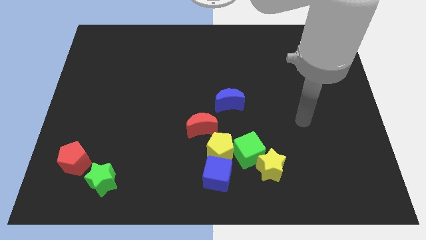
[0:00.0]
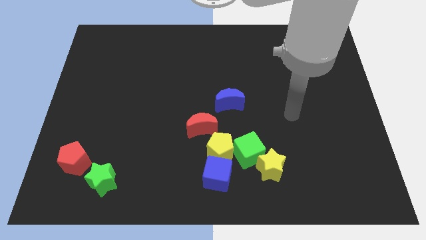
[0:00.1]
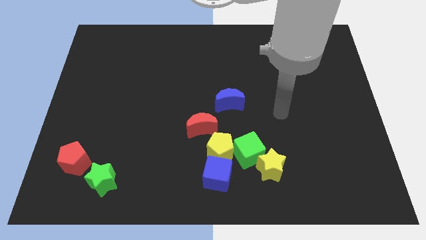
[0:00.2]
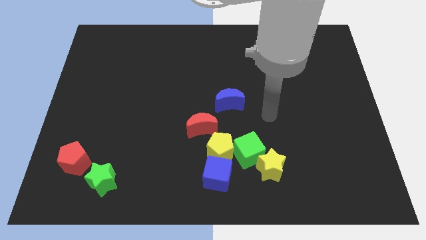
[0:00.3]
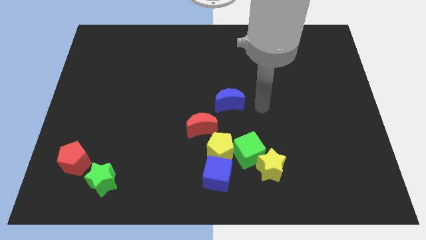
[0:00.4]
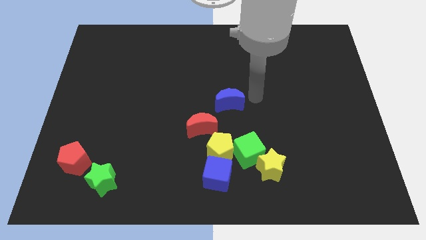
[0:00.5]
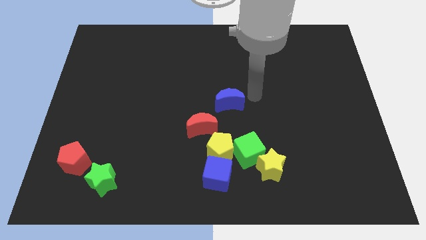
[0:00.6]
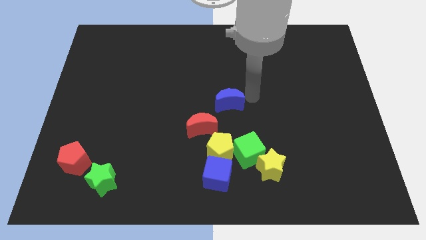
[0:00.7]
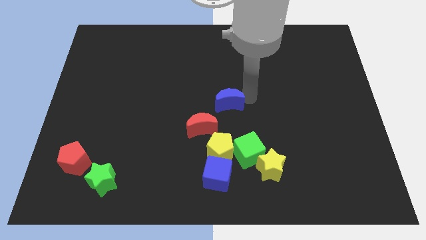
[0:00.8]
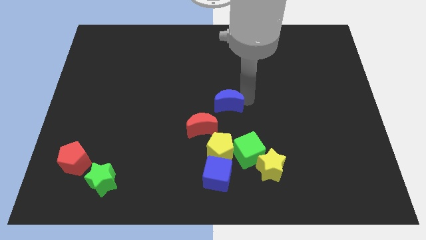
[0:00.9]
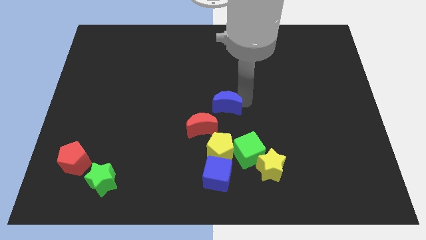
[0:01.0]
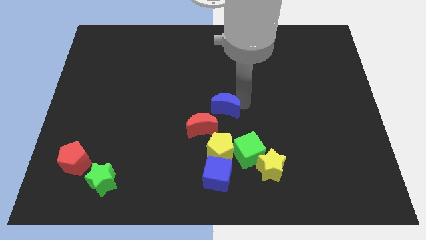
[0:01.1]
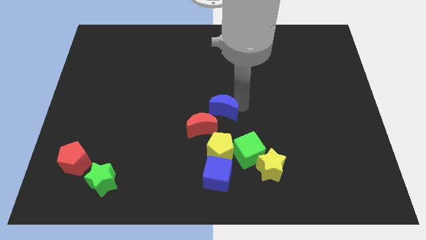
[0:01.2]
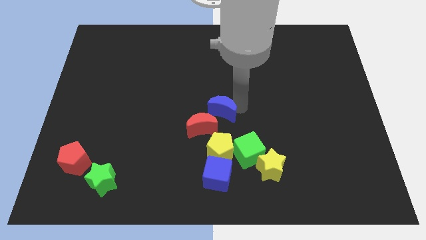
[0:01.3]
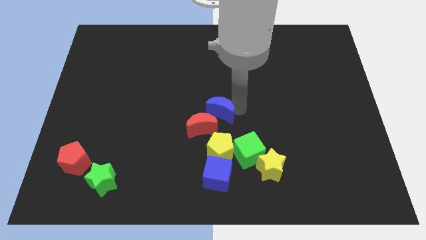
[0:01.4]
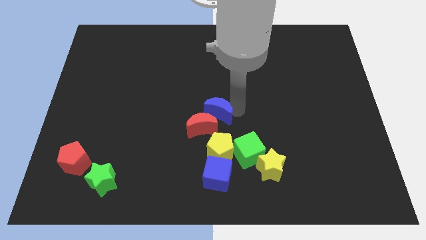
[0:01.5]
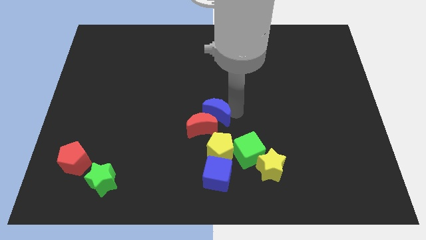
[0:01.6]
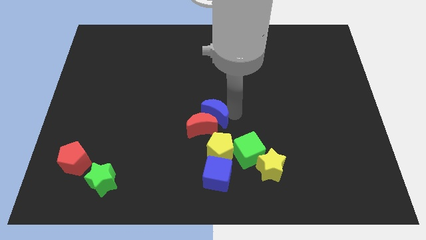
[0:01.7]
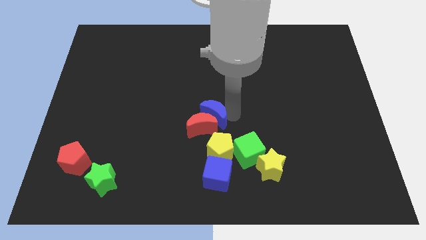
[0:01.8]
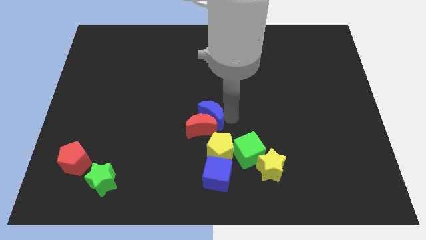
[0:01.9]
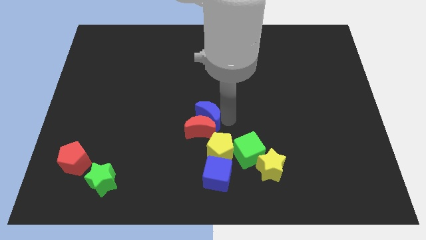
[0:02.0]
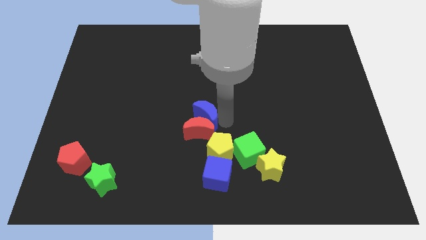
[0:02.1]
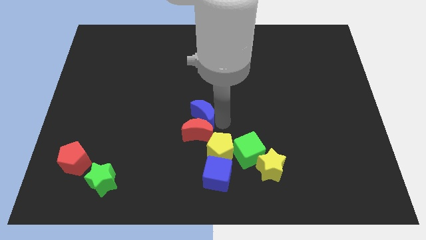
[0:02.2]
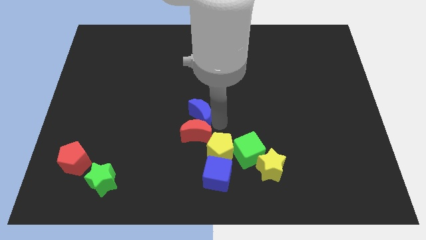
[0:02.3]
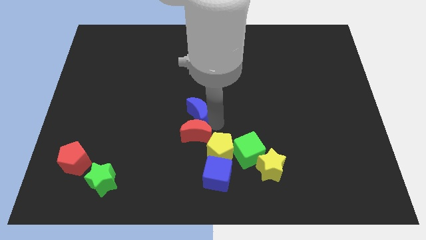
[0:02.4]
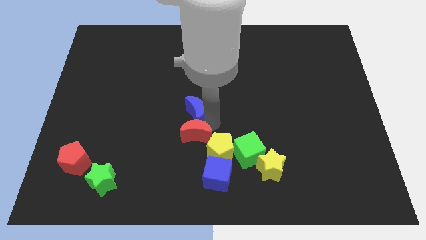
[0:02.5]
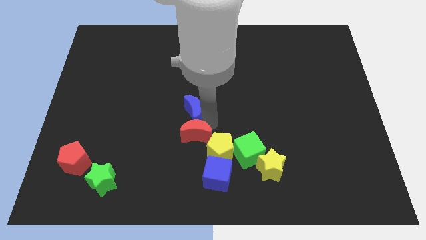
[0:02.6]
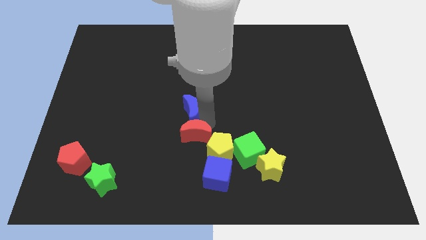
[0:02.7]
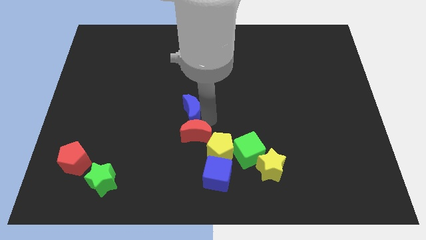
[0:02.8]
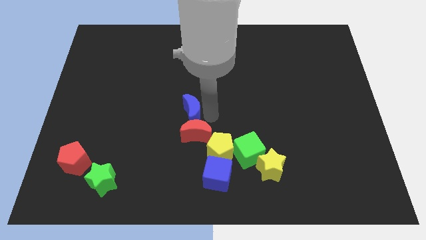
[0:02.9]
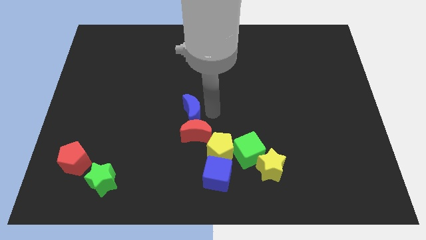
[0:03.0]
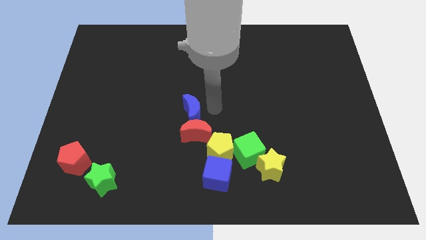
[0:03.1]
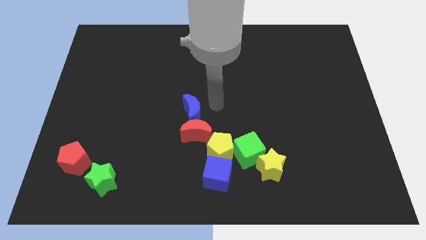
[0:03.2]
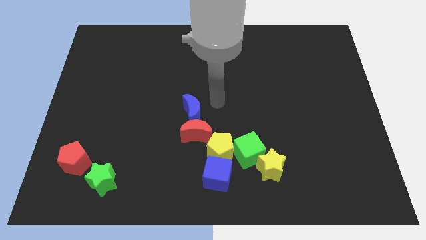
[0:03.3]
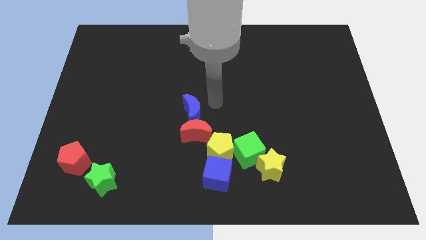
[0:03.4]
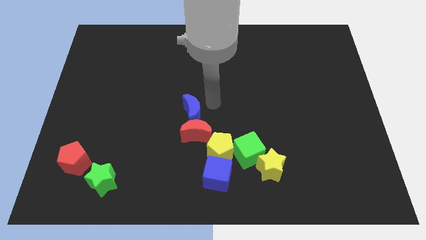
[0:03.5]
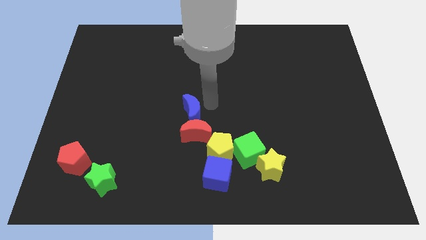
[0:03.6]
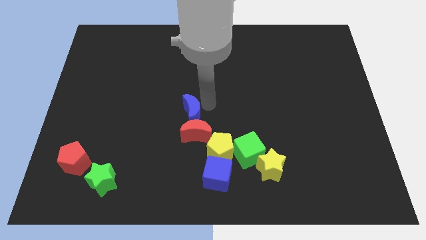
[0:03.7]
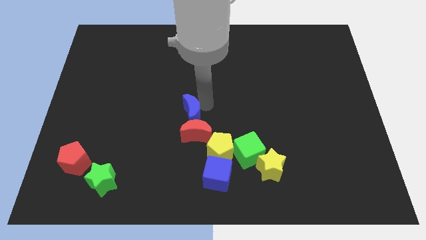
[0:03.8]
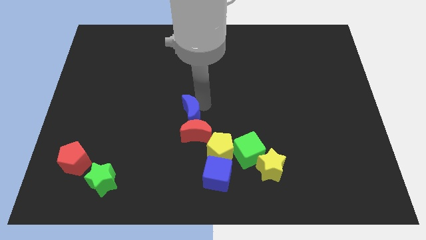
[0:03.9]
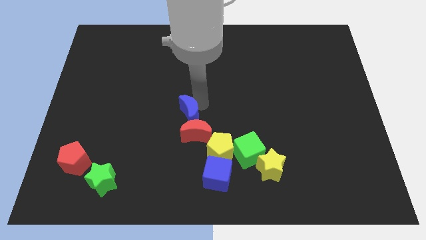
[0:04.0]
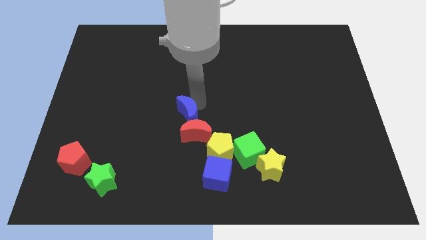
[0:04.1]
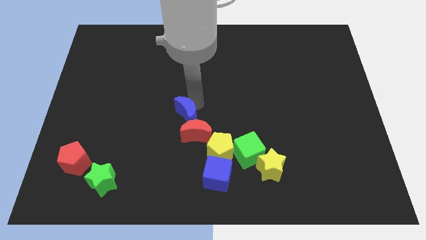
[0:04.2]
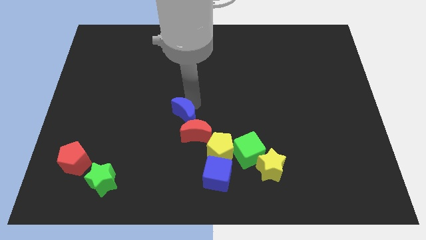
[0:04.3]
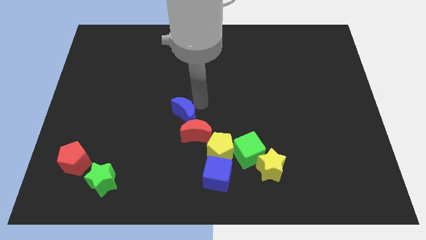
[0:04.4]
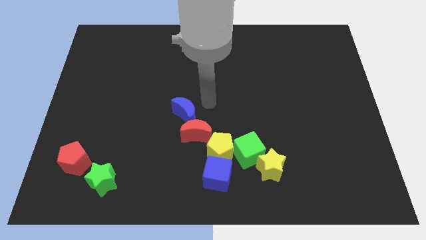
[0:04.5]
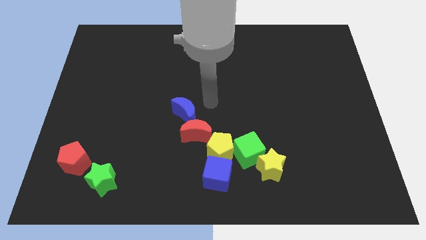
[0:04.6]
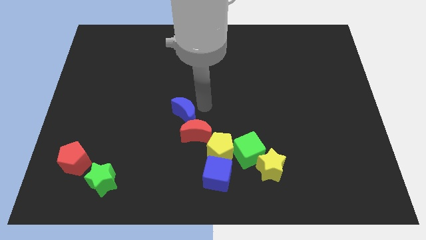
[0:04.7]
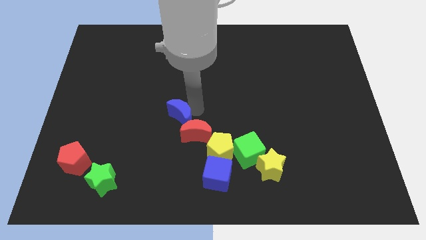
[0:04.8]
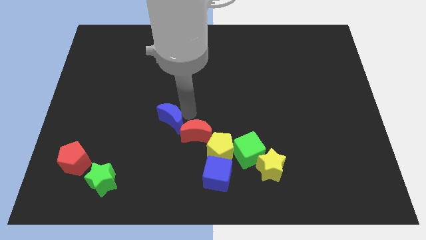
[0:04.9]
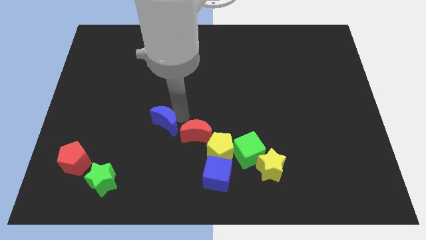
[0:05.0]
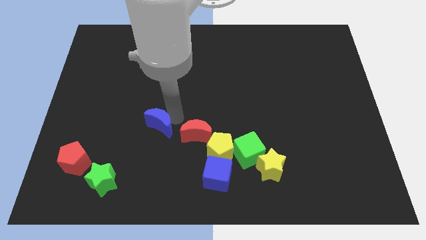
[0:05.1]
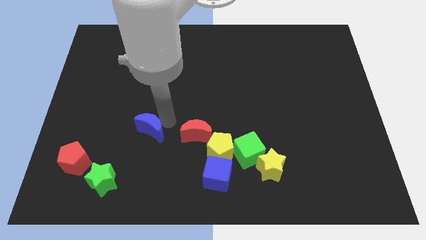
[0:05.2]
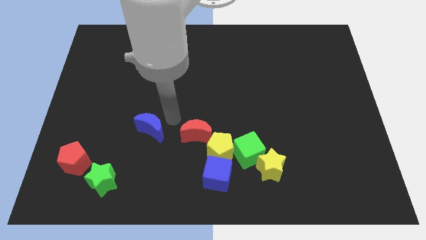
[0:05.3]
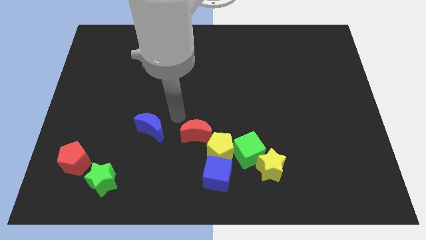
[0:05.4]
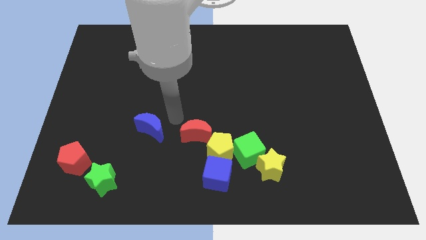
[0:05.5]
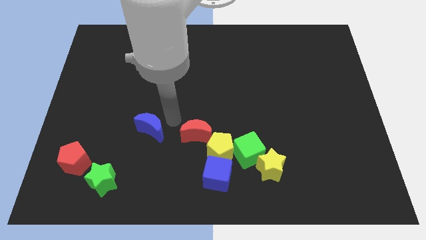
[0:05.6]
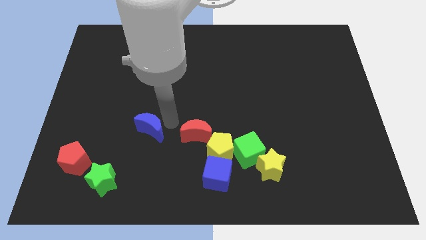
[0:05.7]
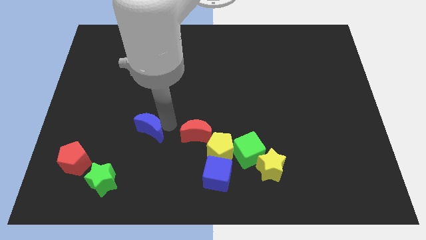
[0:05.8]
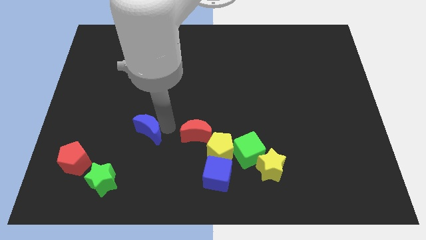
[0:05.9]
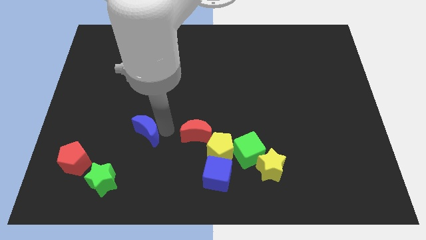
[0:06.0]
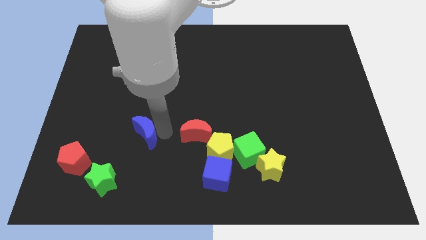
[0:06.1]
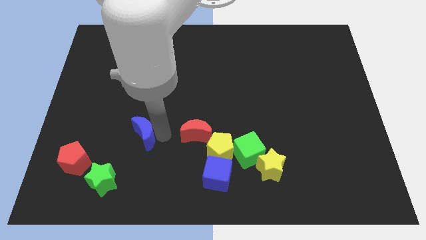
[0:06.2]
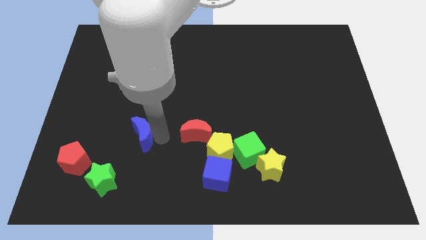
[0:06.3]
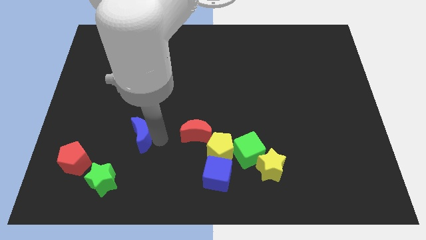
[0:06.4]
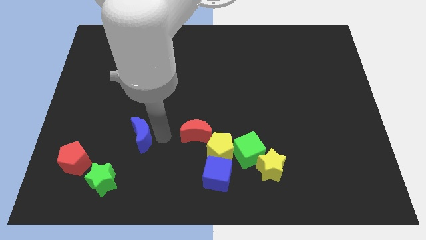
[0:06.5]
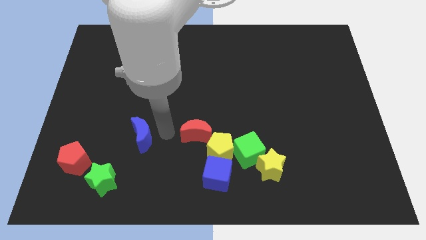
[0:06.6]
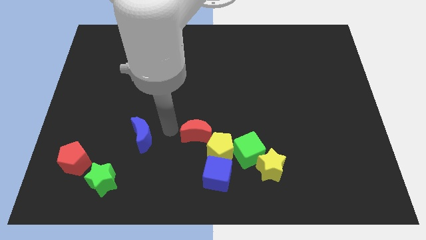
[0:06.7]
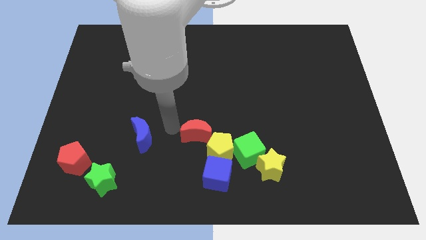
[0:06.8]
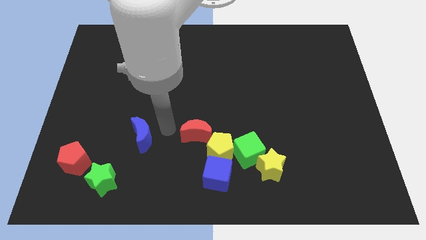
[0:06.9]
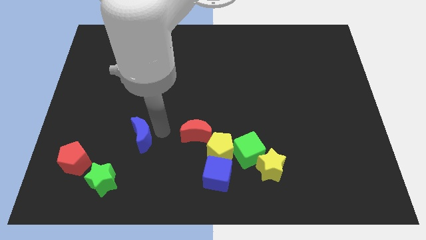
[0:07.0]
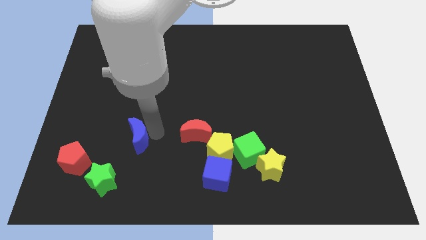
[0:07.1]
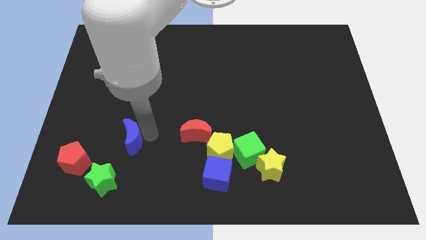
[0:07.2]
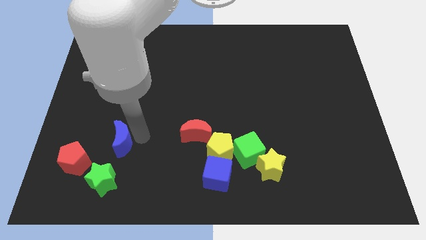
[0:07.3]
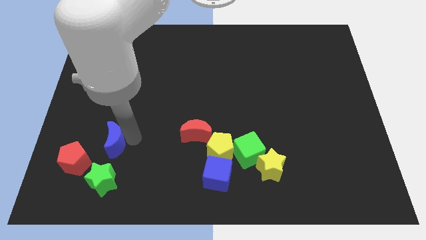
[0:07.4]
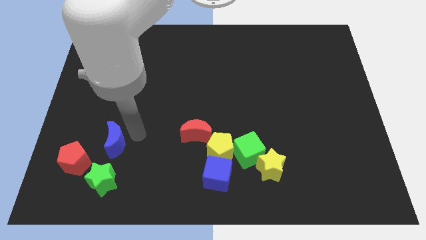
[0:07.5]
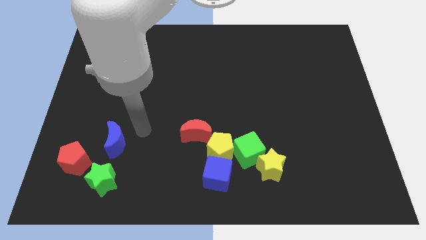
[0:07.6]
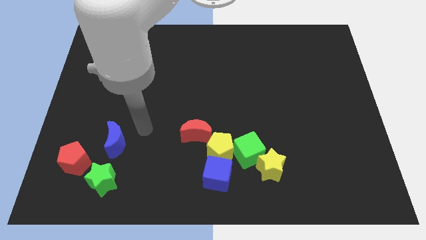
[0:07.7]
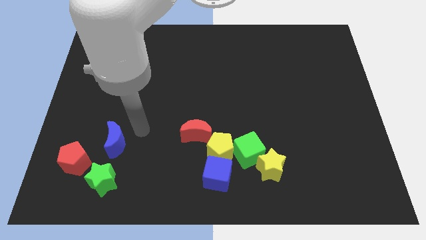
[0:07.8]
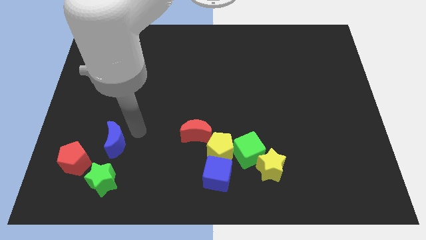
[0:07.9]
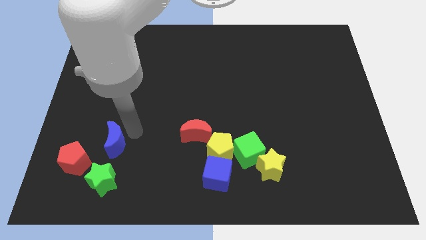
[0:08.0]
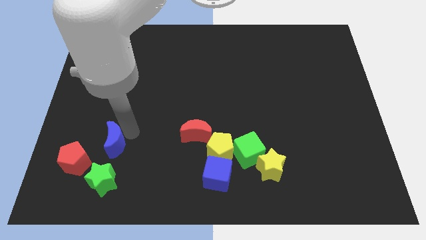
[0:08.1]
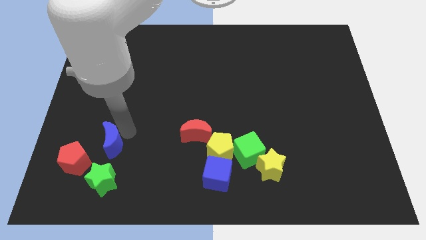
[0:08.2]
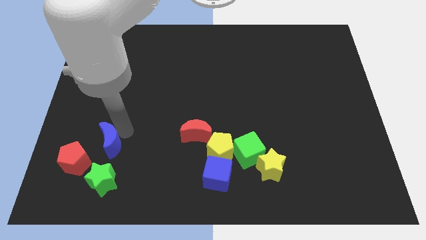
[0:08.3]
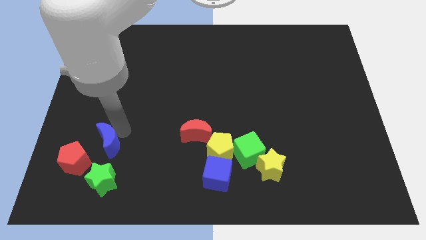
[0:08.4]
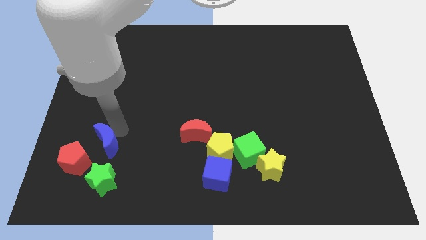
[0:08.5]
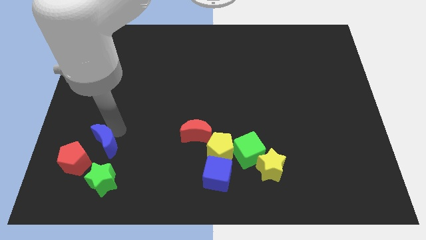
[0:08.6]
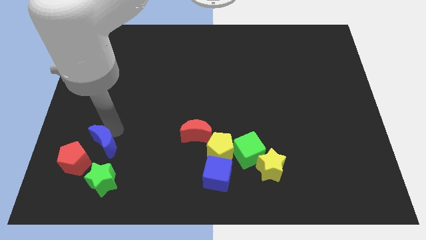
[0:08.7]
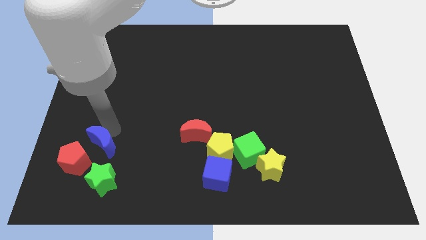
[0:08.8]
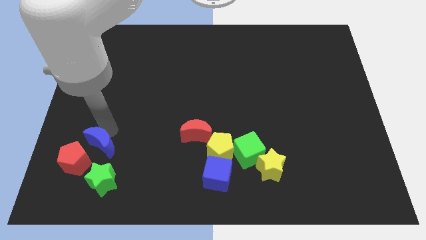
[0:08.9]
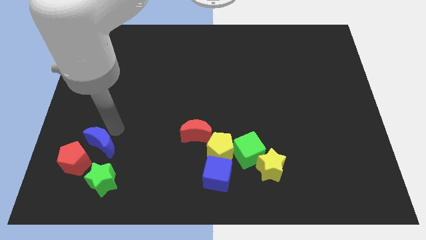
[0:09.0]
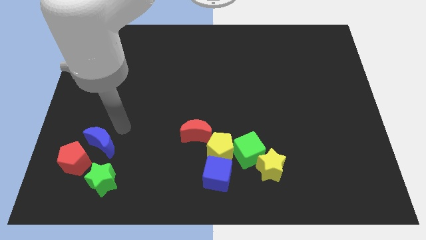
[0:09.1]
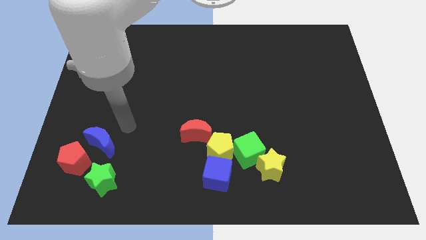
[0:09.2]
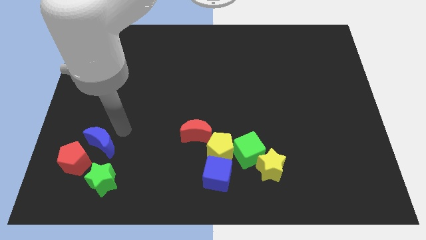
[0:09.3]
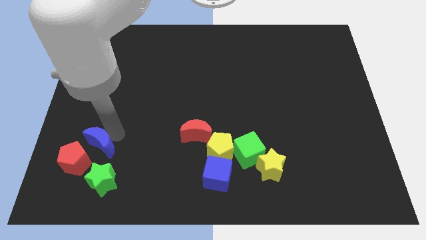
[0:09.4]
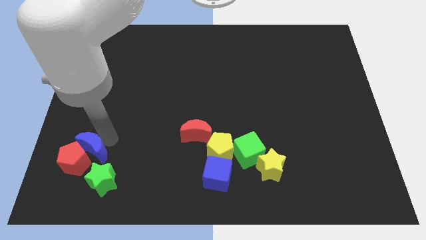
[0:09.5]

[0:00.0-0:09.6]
move the blue moon to the red pentagon
